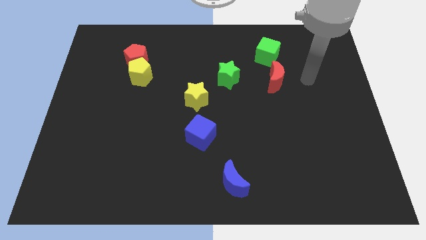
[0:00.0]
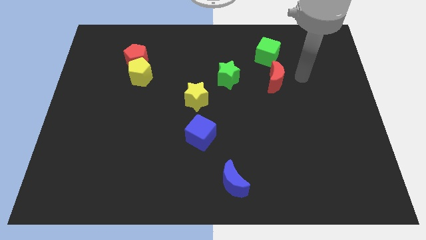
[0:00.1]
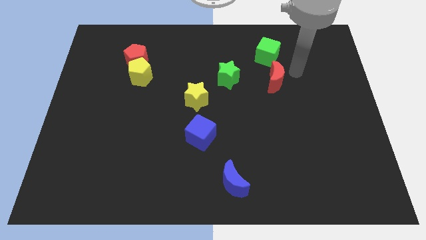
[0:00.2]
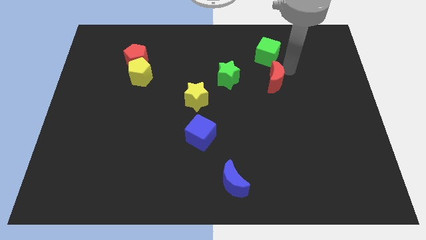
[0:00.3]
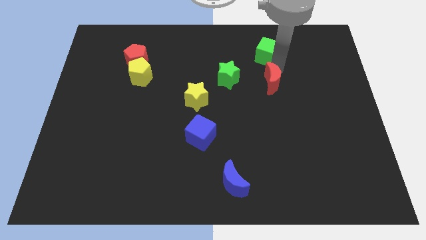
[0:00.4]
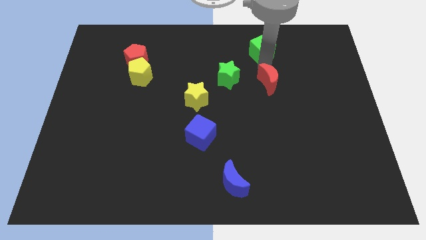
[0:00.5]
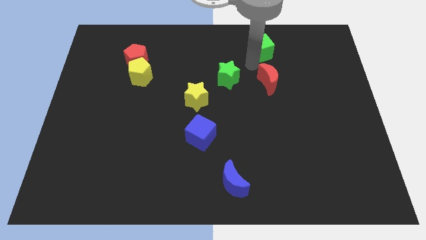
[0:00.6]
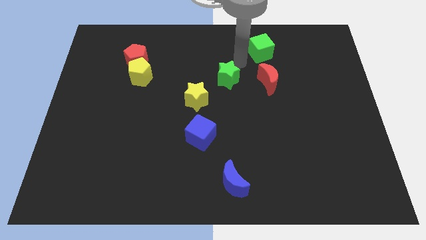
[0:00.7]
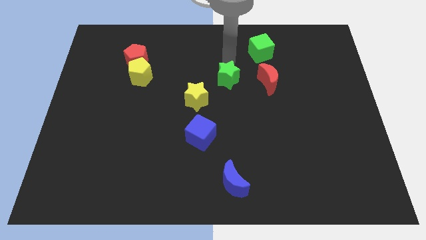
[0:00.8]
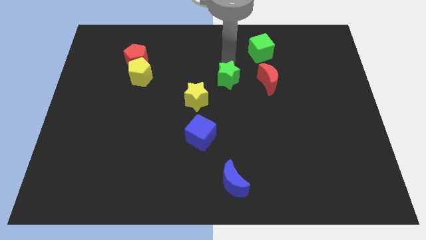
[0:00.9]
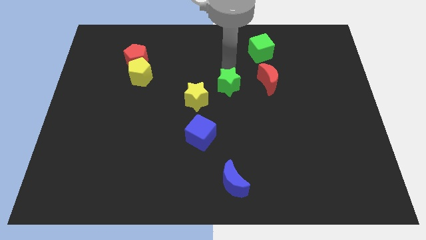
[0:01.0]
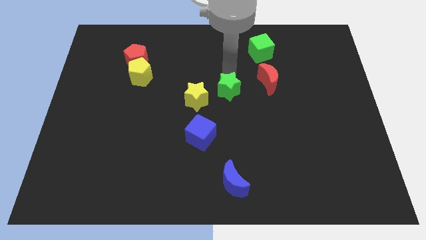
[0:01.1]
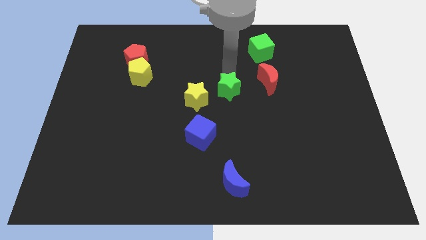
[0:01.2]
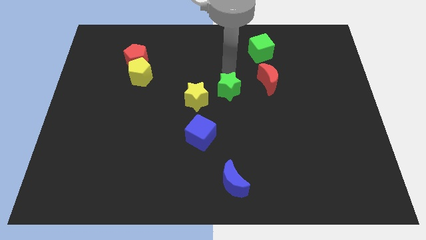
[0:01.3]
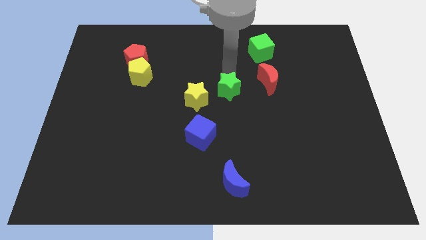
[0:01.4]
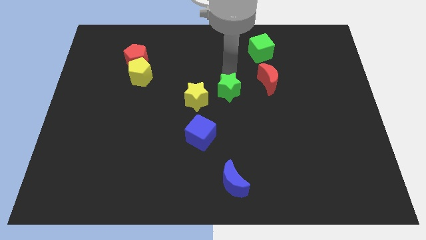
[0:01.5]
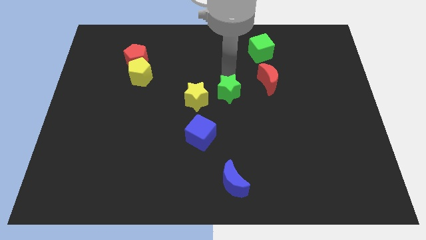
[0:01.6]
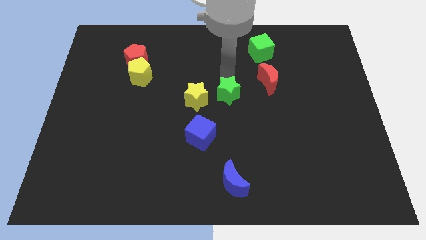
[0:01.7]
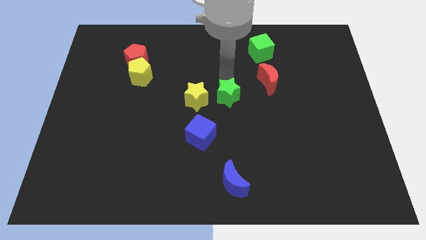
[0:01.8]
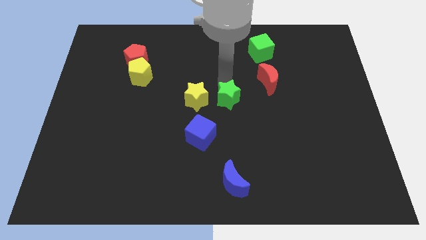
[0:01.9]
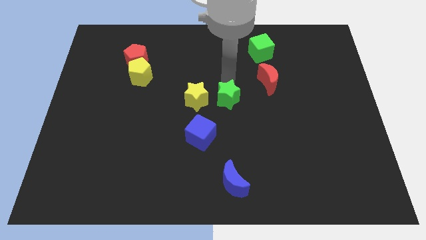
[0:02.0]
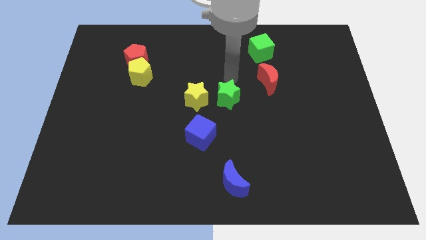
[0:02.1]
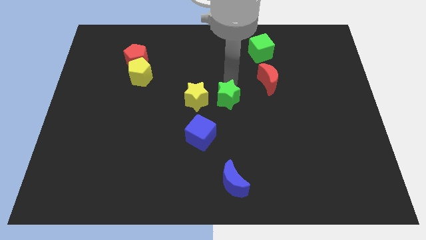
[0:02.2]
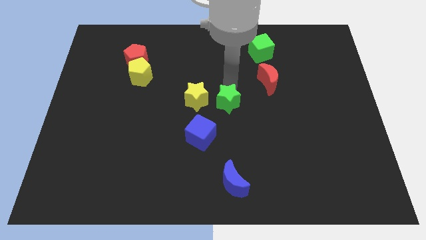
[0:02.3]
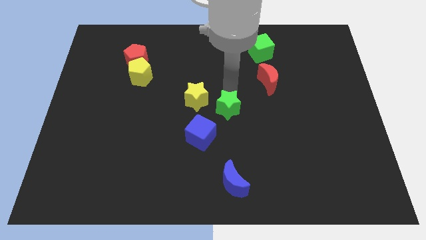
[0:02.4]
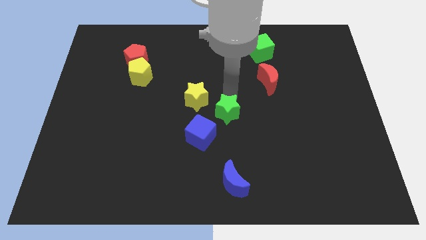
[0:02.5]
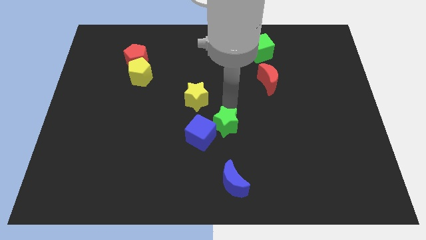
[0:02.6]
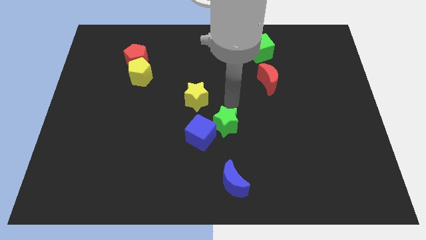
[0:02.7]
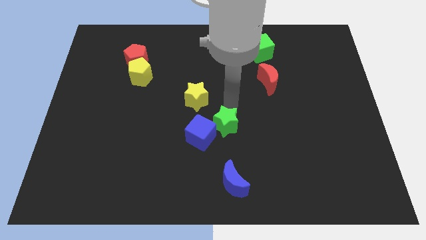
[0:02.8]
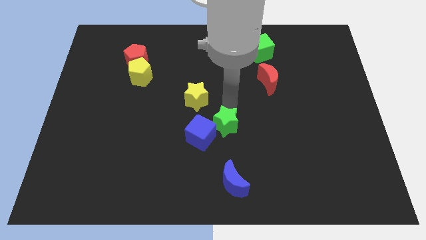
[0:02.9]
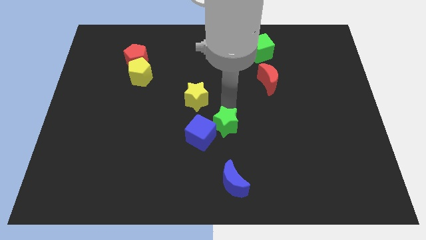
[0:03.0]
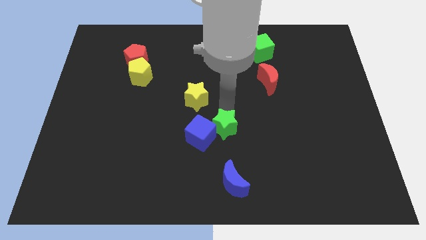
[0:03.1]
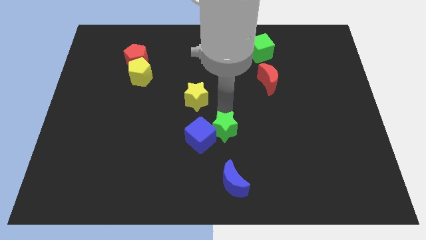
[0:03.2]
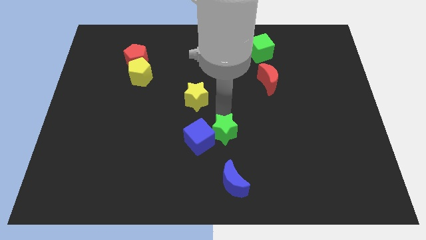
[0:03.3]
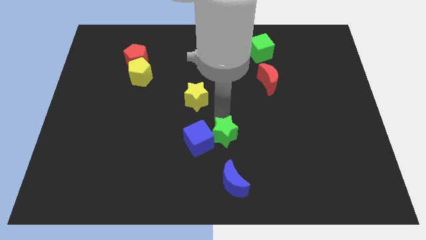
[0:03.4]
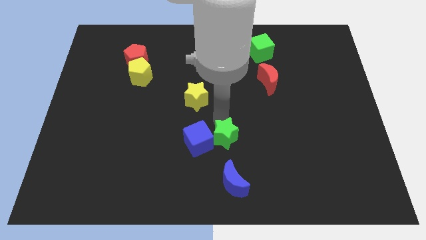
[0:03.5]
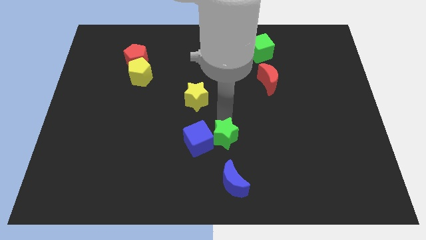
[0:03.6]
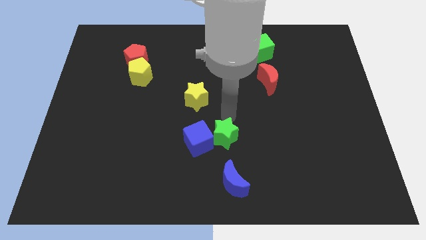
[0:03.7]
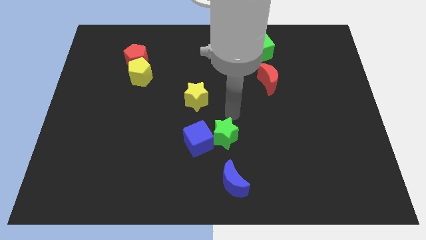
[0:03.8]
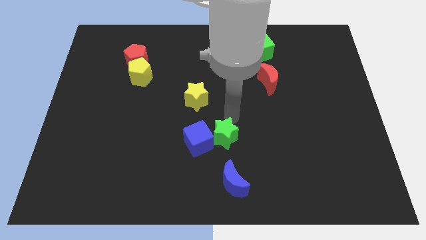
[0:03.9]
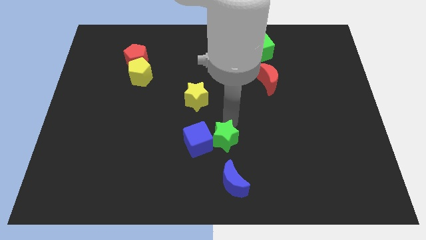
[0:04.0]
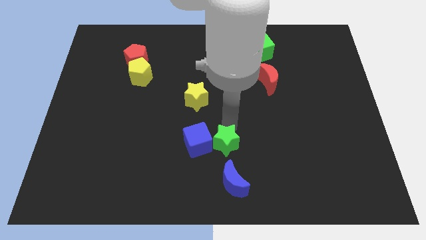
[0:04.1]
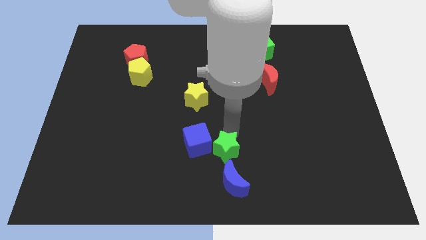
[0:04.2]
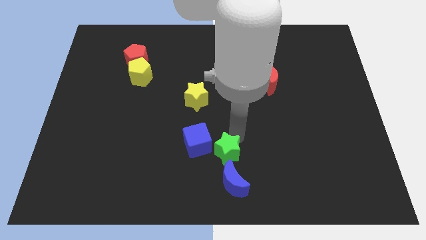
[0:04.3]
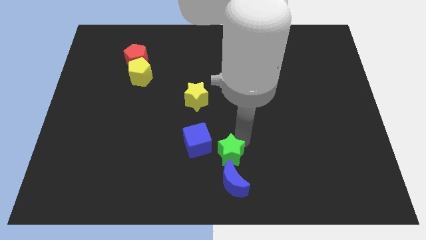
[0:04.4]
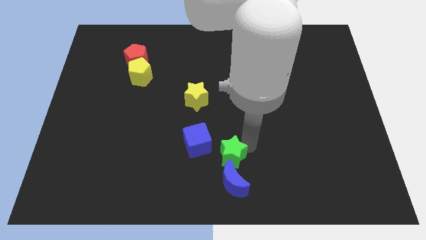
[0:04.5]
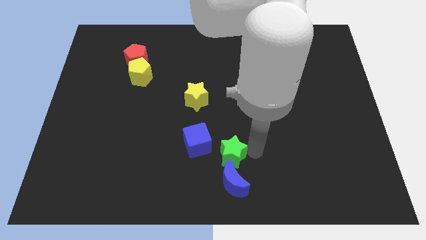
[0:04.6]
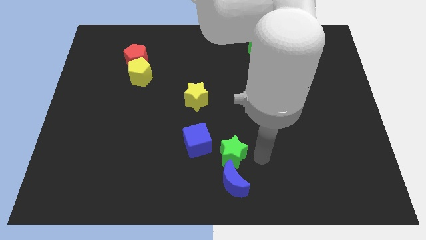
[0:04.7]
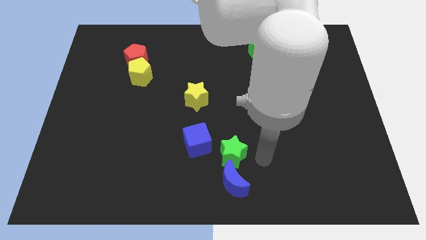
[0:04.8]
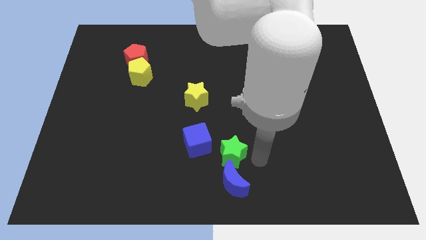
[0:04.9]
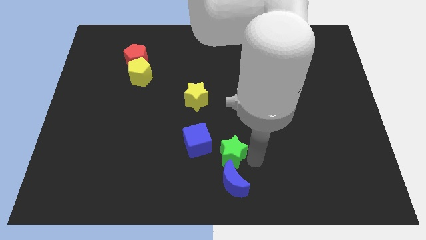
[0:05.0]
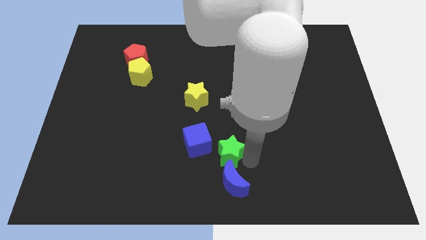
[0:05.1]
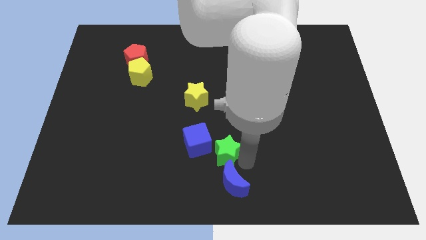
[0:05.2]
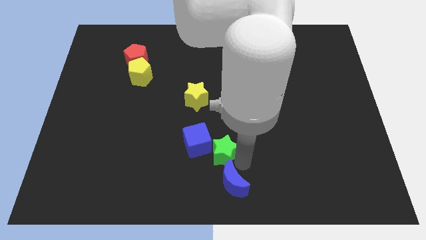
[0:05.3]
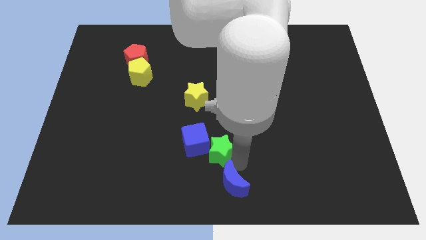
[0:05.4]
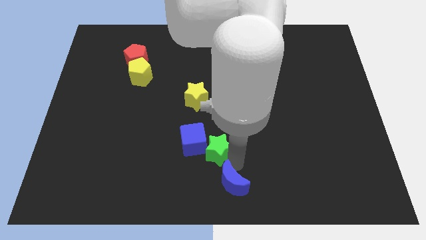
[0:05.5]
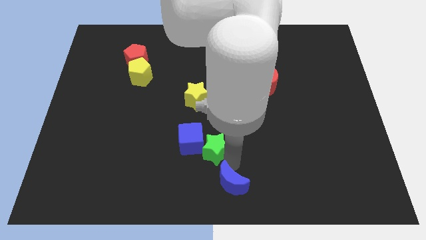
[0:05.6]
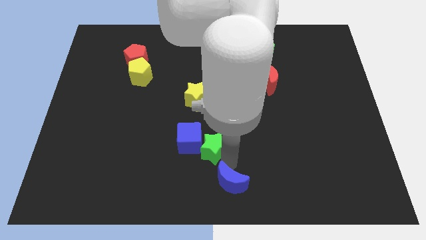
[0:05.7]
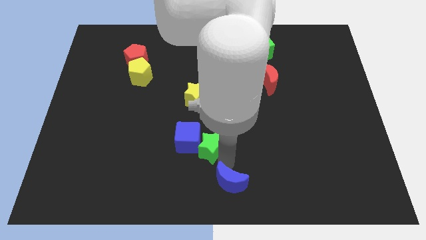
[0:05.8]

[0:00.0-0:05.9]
move the green star to the bottom side of the yellow star

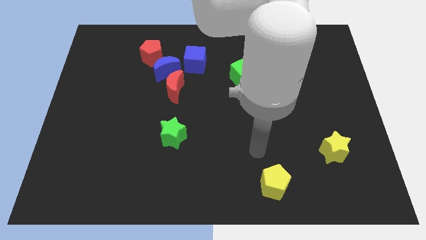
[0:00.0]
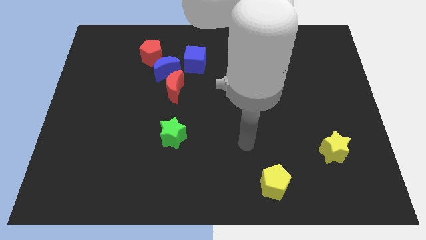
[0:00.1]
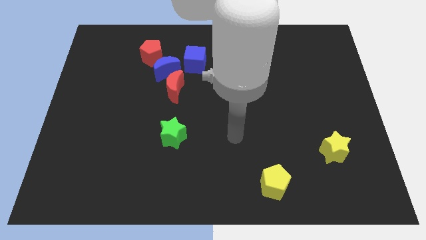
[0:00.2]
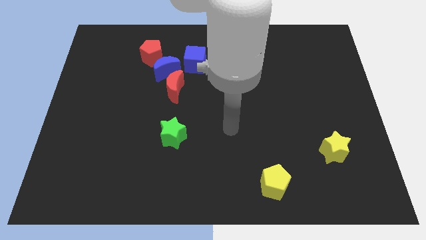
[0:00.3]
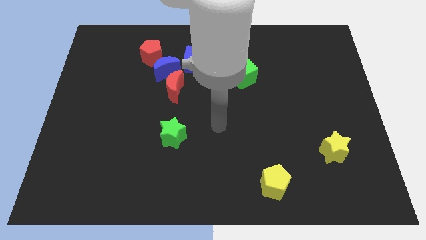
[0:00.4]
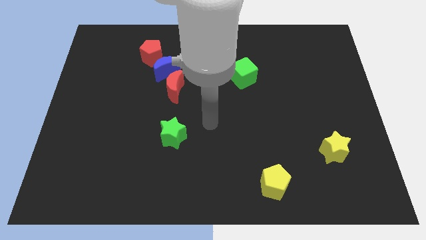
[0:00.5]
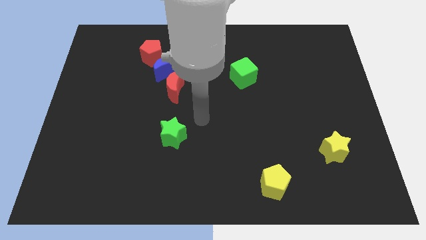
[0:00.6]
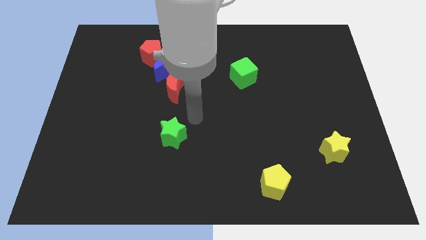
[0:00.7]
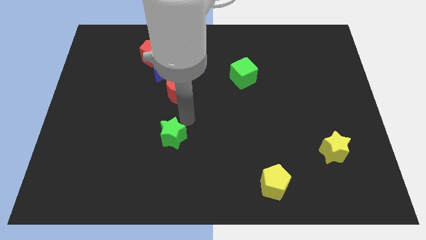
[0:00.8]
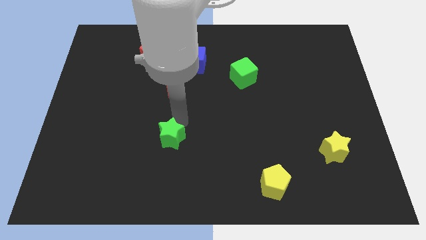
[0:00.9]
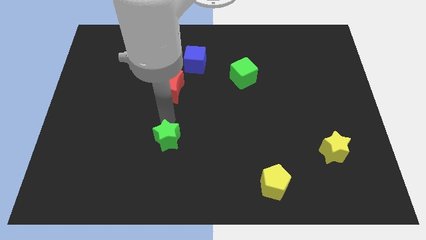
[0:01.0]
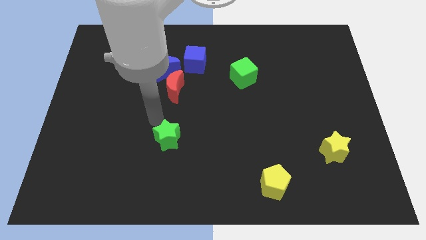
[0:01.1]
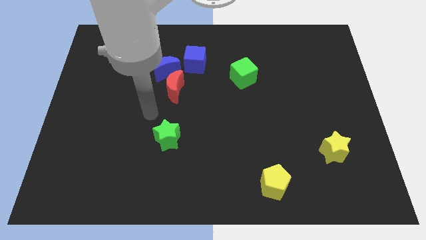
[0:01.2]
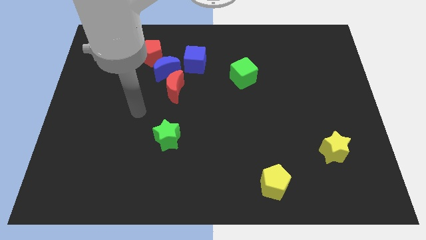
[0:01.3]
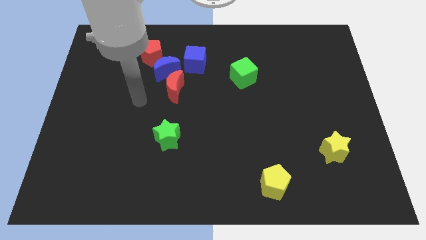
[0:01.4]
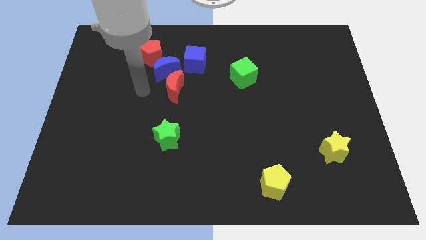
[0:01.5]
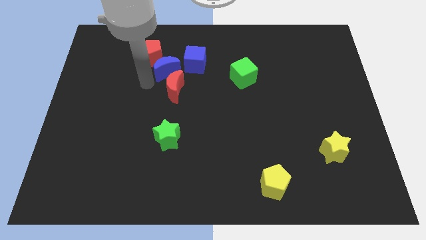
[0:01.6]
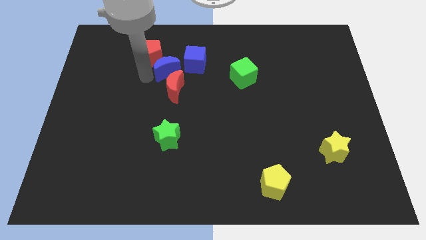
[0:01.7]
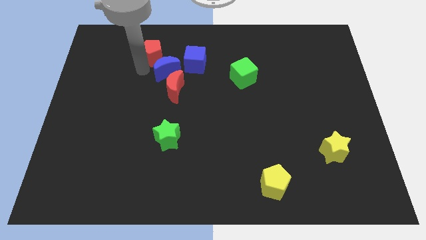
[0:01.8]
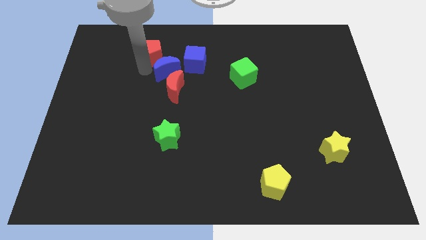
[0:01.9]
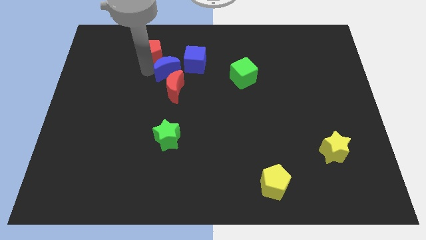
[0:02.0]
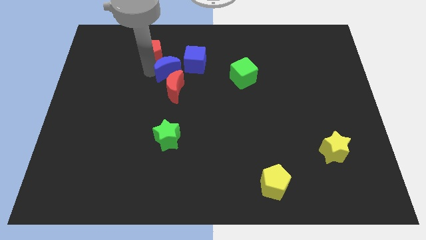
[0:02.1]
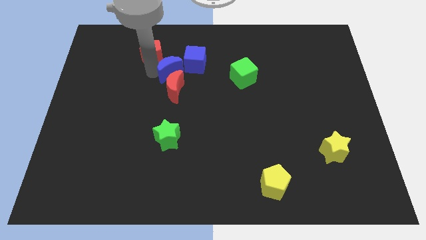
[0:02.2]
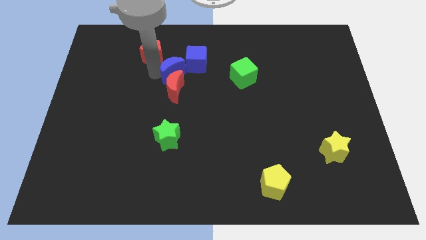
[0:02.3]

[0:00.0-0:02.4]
push the blue moon diagonally up and to the right of the red moon
